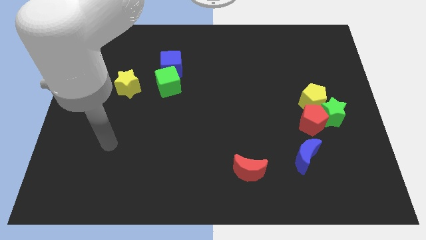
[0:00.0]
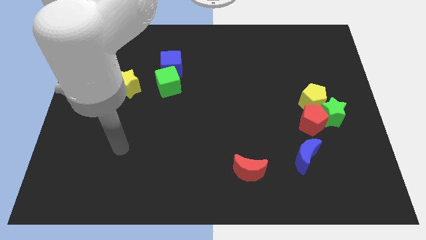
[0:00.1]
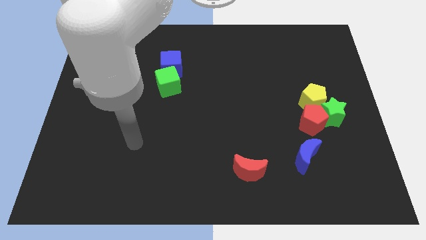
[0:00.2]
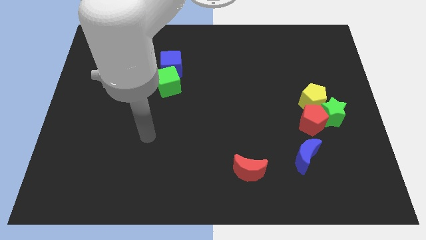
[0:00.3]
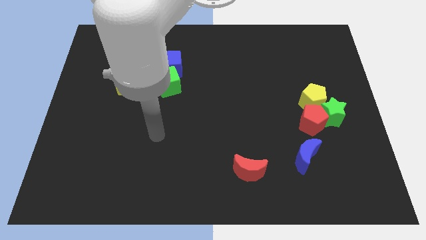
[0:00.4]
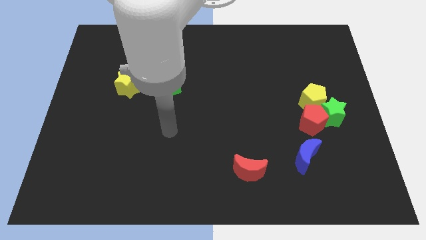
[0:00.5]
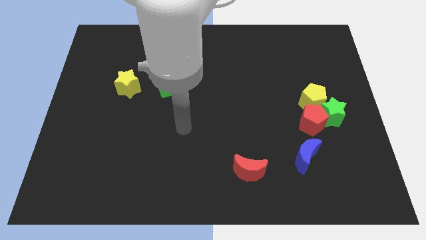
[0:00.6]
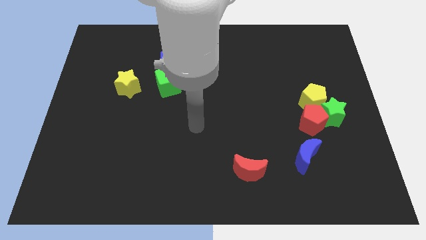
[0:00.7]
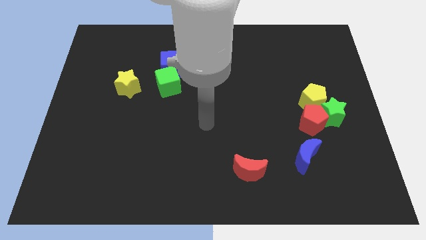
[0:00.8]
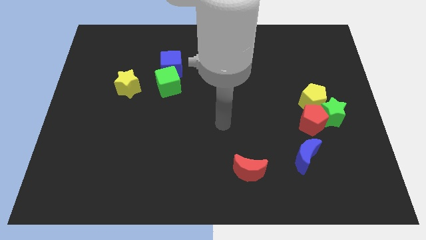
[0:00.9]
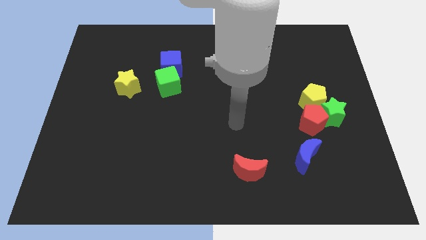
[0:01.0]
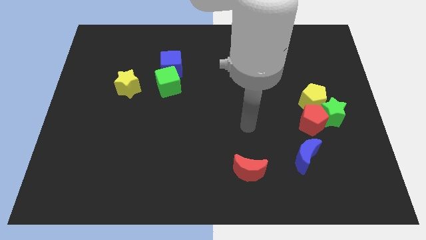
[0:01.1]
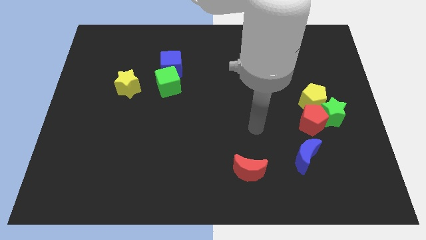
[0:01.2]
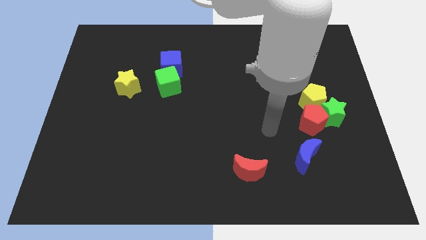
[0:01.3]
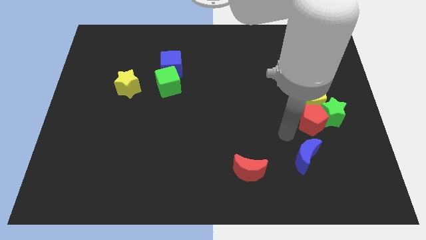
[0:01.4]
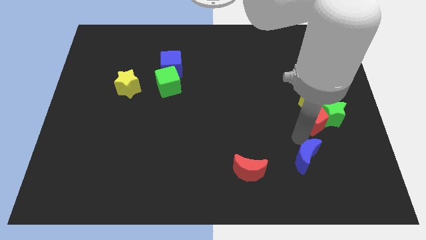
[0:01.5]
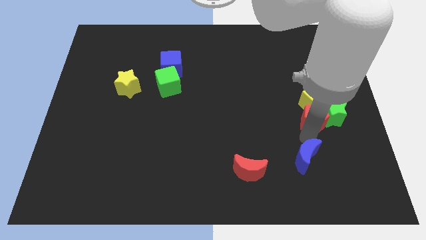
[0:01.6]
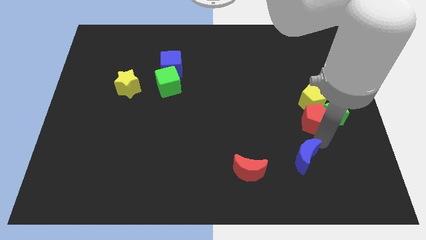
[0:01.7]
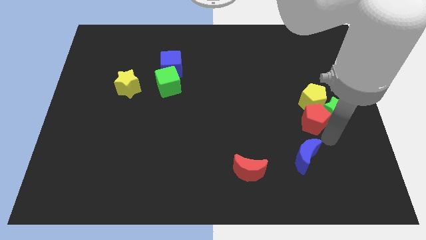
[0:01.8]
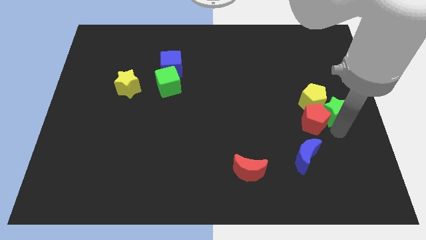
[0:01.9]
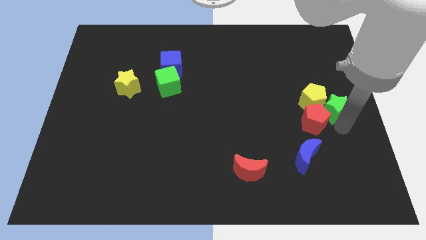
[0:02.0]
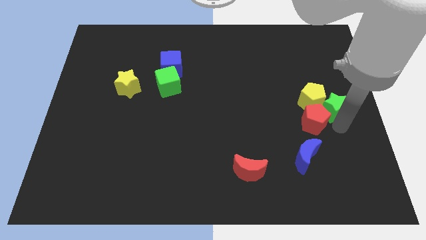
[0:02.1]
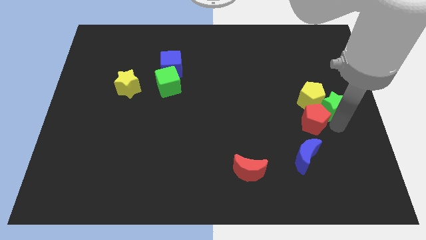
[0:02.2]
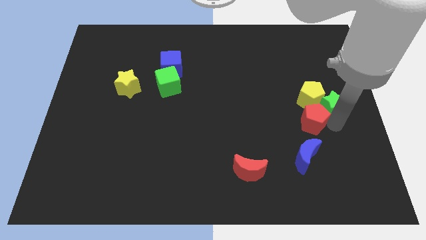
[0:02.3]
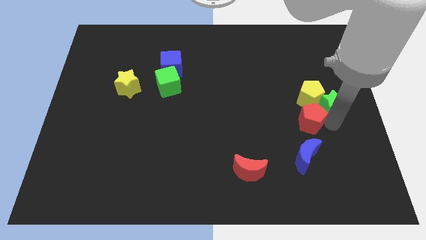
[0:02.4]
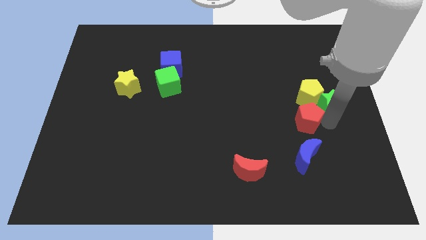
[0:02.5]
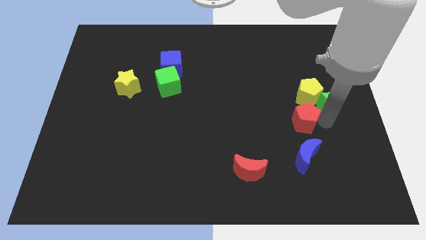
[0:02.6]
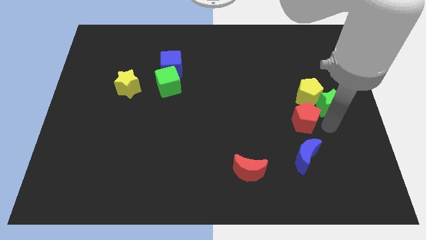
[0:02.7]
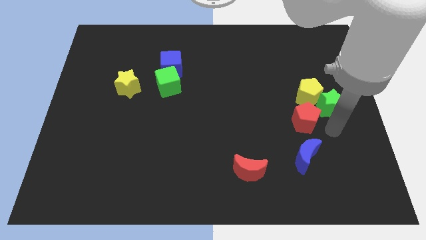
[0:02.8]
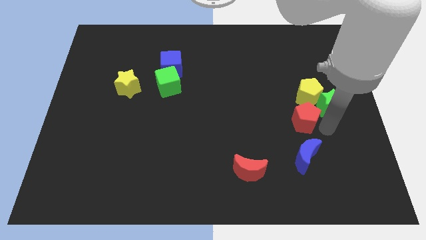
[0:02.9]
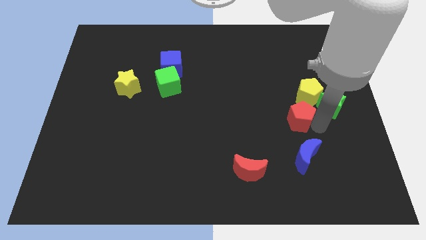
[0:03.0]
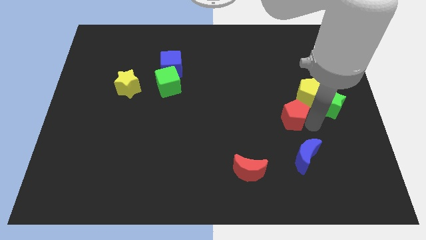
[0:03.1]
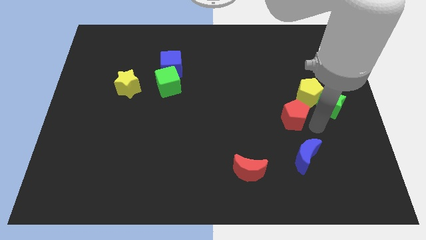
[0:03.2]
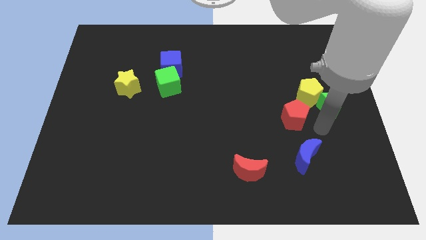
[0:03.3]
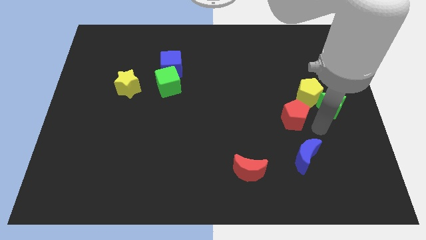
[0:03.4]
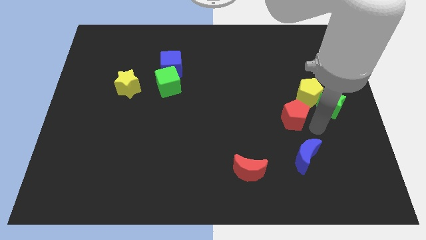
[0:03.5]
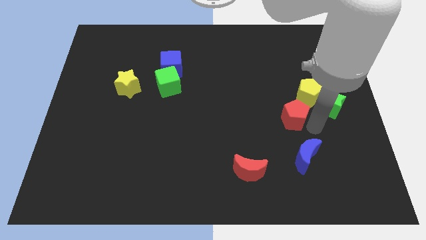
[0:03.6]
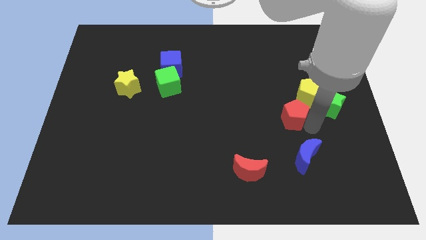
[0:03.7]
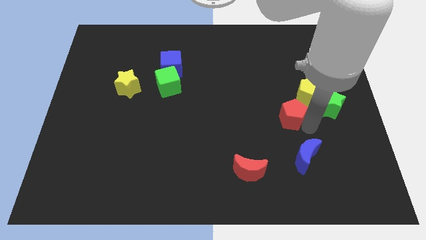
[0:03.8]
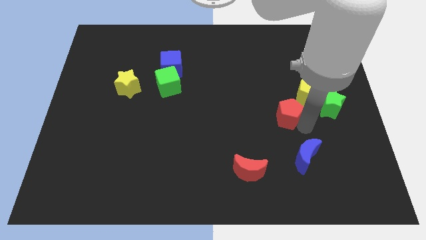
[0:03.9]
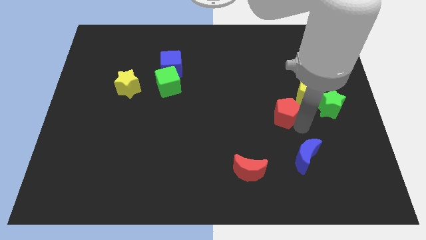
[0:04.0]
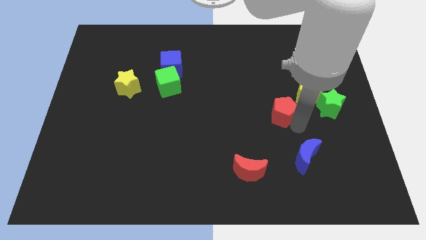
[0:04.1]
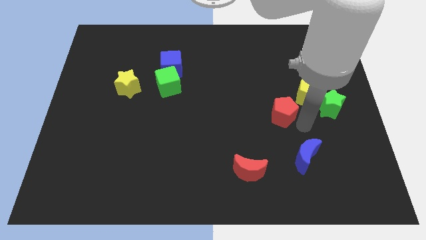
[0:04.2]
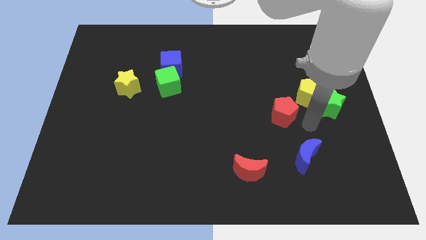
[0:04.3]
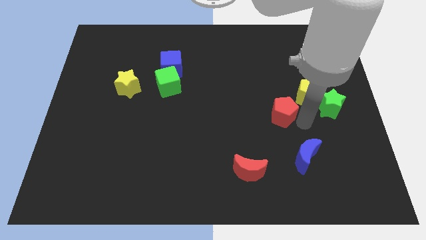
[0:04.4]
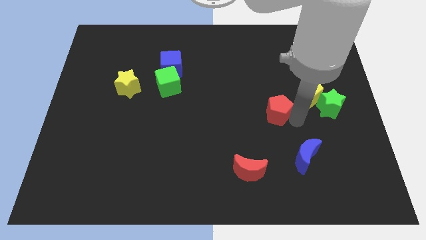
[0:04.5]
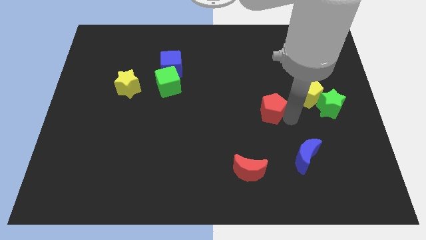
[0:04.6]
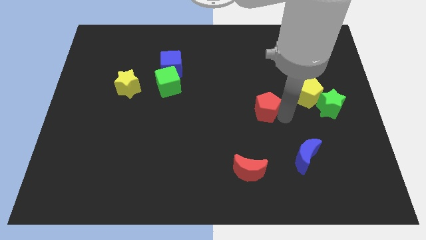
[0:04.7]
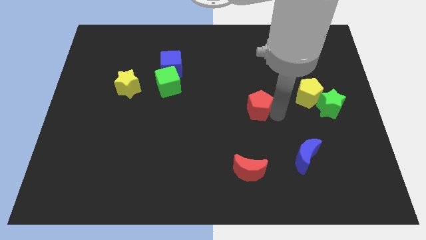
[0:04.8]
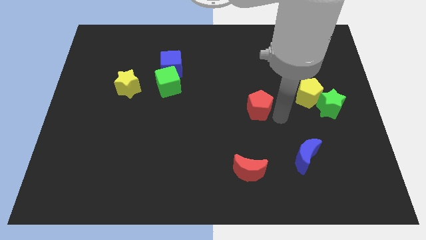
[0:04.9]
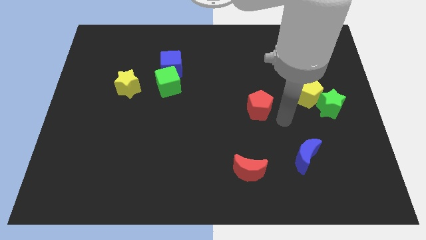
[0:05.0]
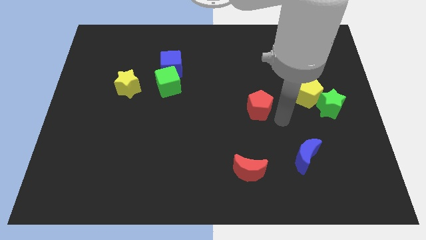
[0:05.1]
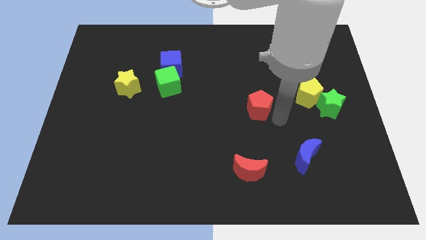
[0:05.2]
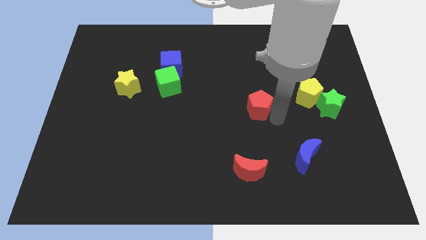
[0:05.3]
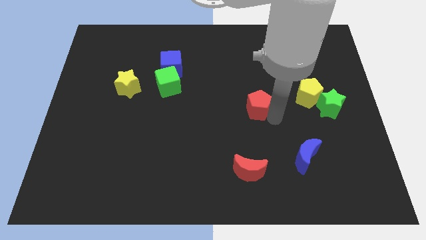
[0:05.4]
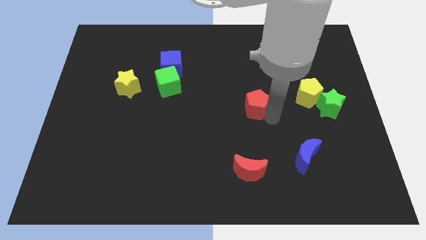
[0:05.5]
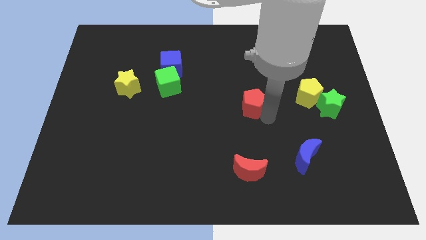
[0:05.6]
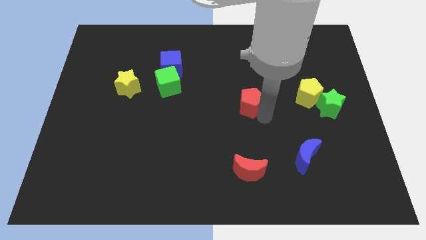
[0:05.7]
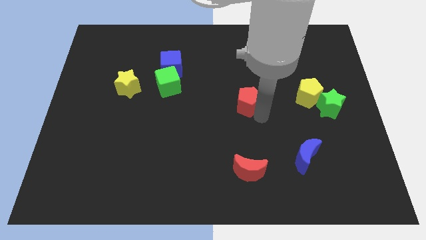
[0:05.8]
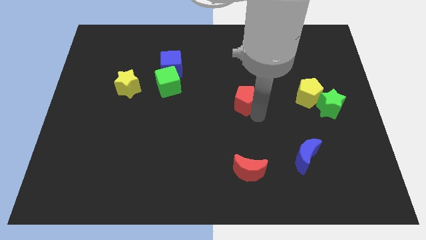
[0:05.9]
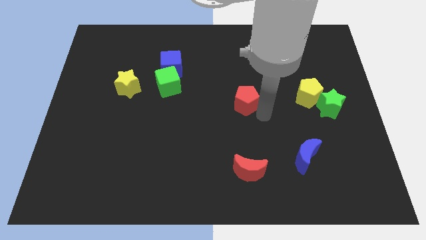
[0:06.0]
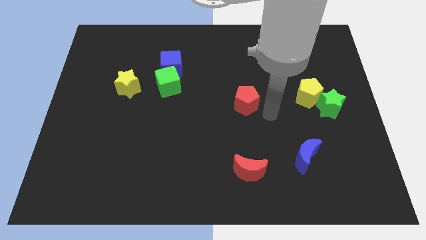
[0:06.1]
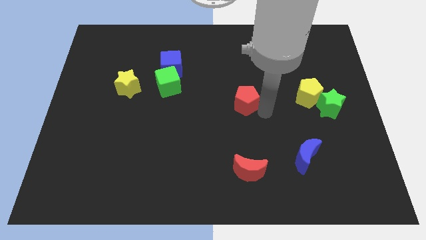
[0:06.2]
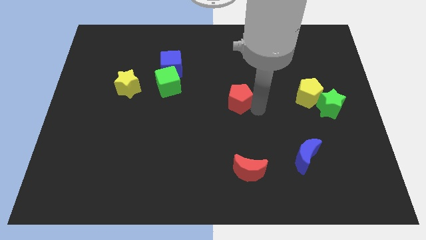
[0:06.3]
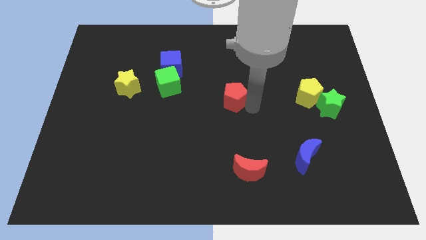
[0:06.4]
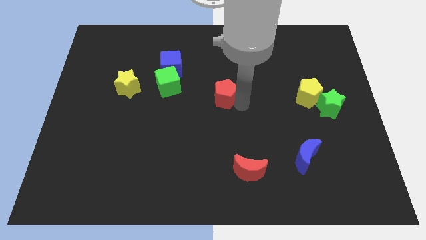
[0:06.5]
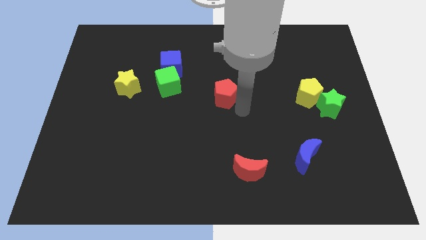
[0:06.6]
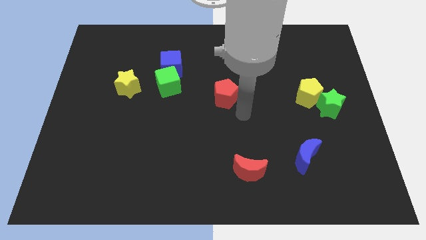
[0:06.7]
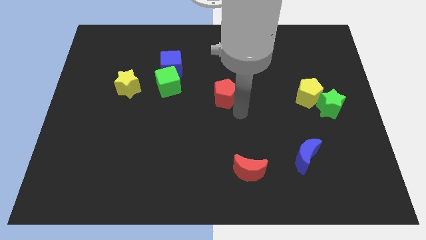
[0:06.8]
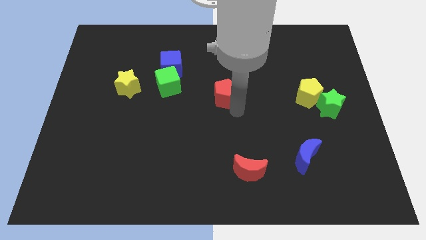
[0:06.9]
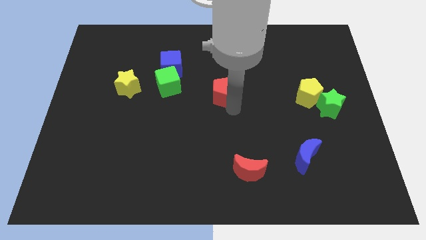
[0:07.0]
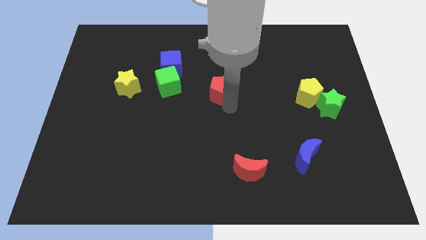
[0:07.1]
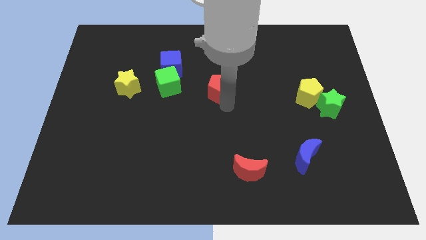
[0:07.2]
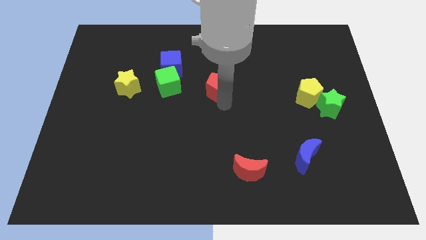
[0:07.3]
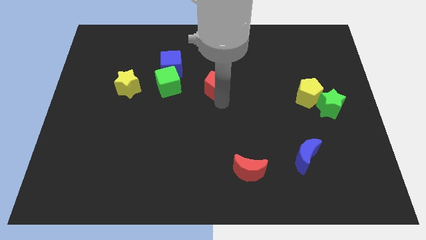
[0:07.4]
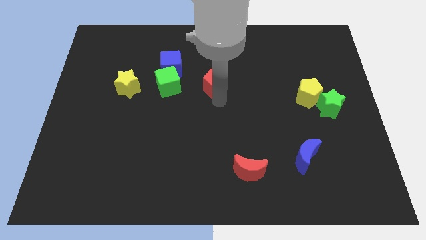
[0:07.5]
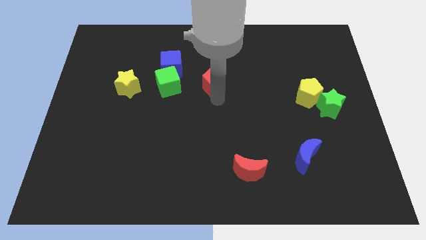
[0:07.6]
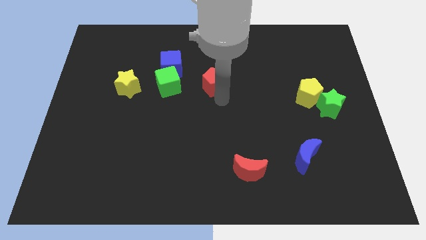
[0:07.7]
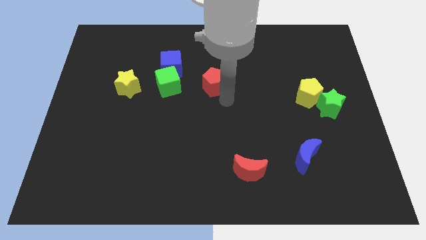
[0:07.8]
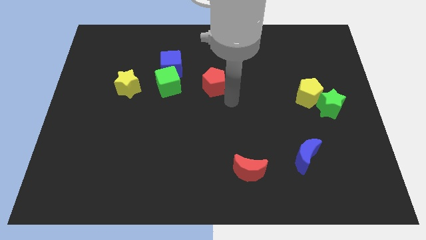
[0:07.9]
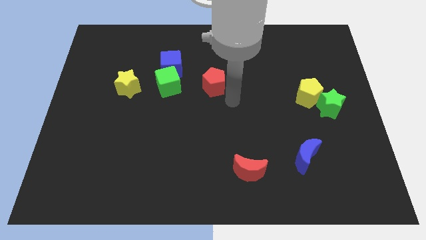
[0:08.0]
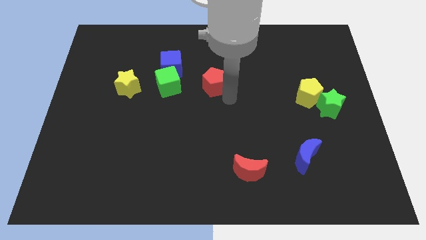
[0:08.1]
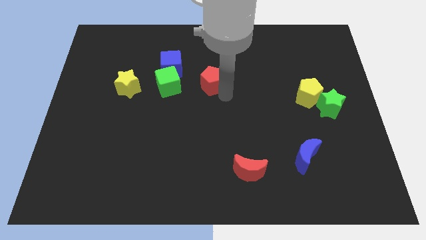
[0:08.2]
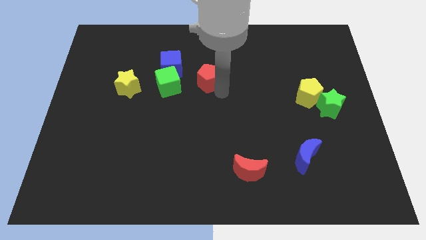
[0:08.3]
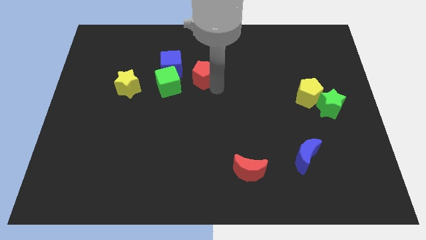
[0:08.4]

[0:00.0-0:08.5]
put the red pentagon to the top right side of the green cube
